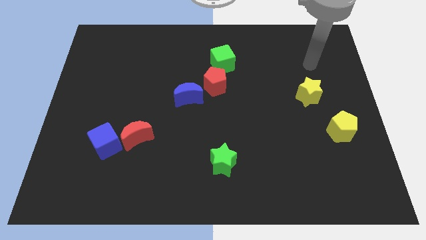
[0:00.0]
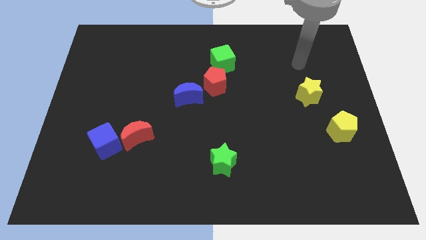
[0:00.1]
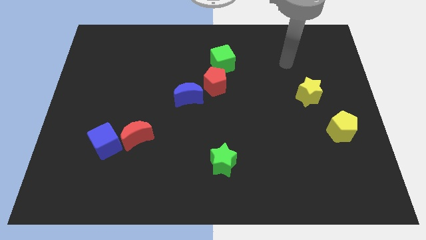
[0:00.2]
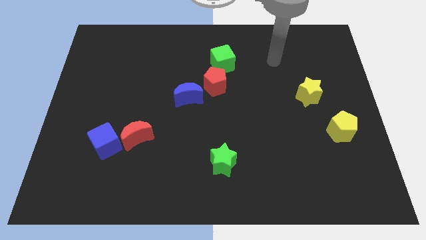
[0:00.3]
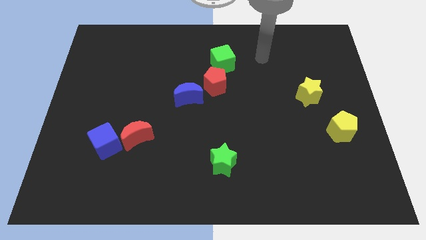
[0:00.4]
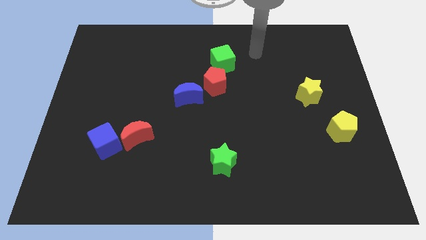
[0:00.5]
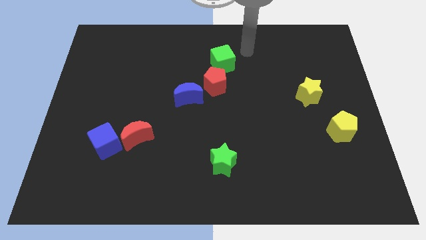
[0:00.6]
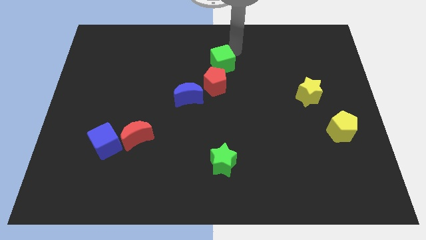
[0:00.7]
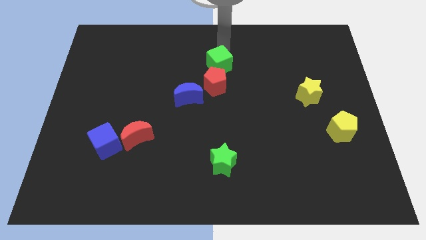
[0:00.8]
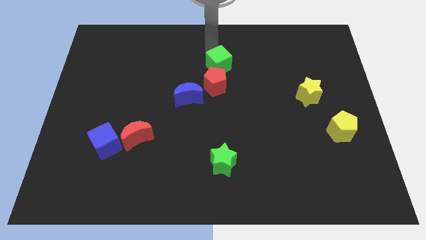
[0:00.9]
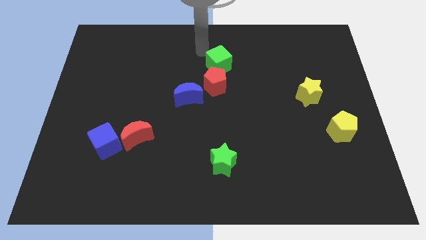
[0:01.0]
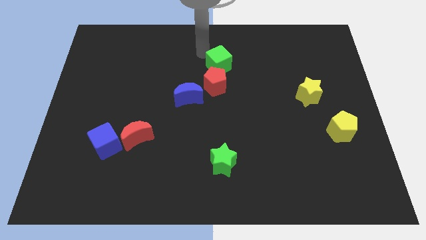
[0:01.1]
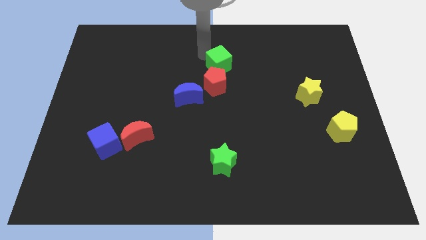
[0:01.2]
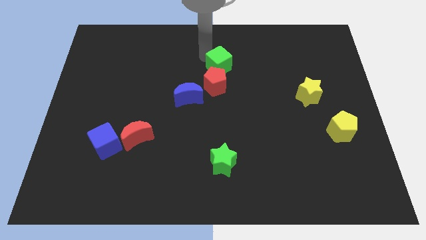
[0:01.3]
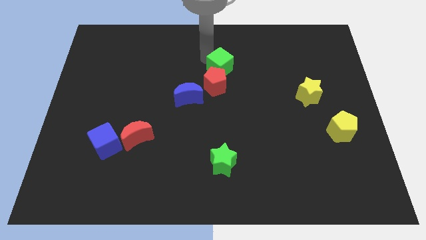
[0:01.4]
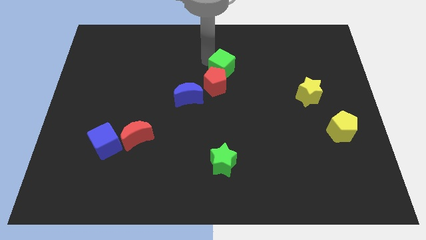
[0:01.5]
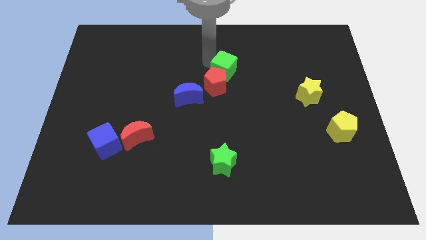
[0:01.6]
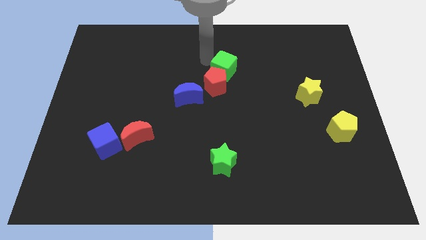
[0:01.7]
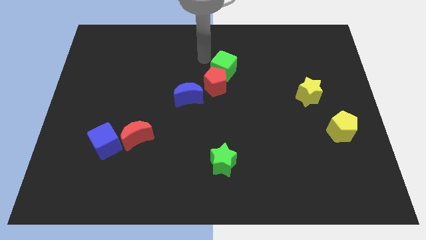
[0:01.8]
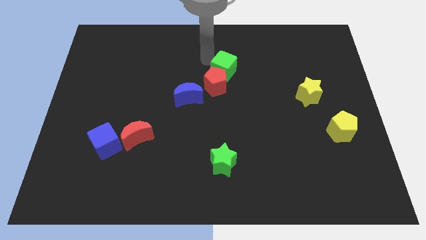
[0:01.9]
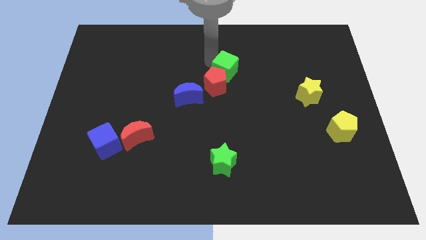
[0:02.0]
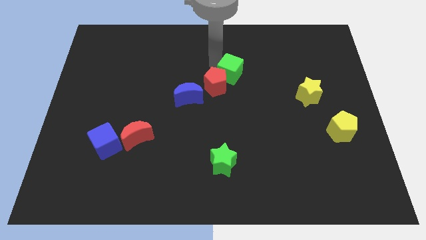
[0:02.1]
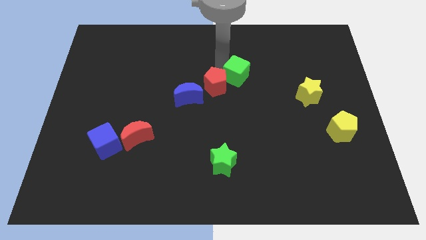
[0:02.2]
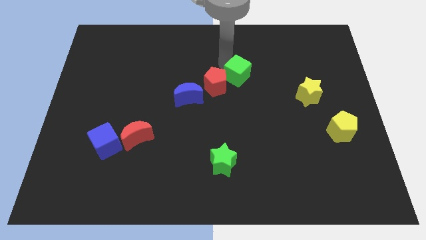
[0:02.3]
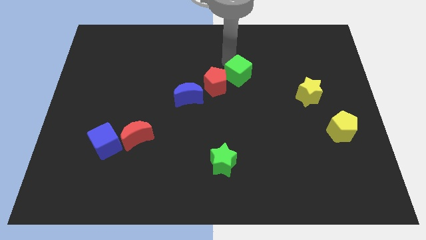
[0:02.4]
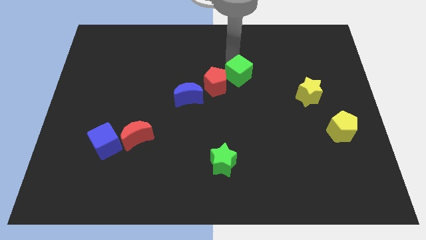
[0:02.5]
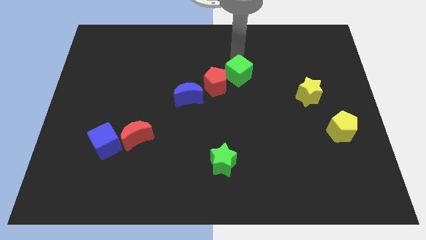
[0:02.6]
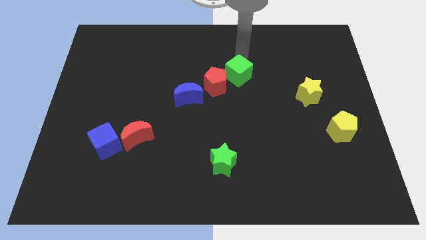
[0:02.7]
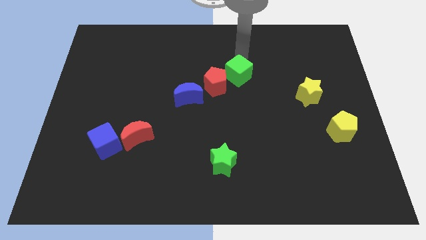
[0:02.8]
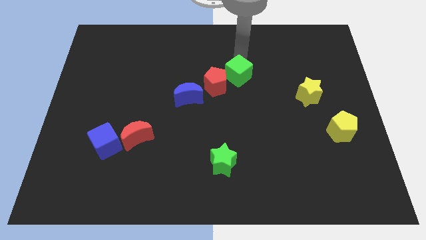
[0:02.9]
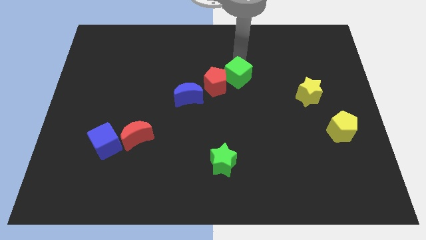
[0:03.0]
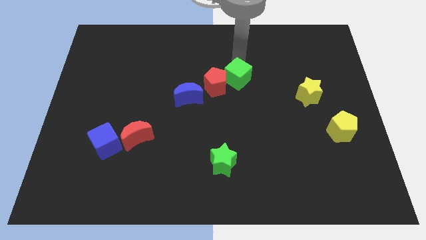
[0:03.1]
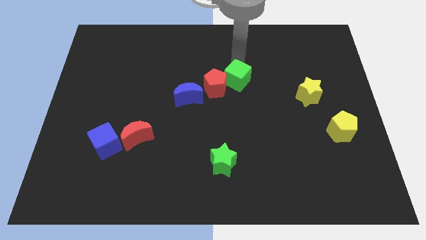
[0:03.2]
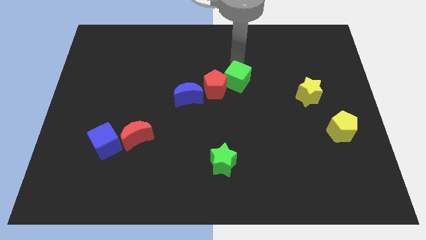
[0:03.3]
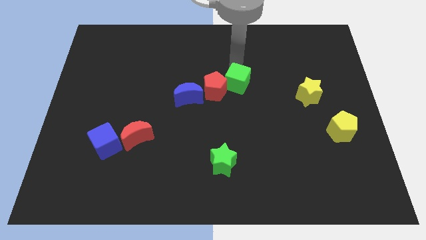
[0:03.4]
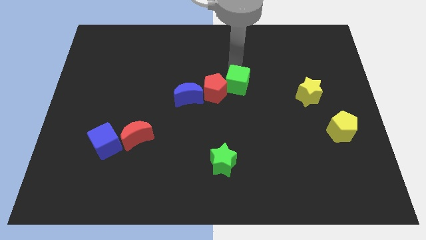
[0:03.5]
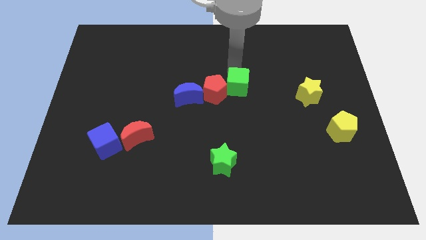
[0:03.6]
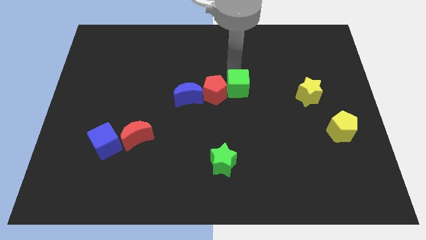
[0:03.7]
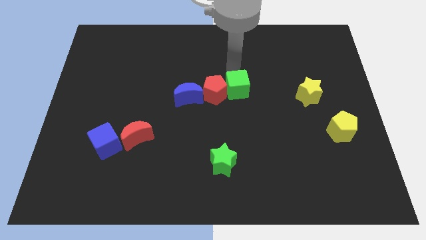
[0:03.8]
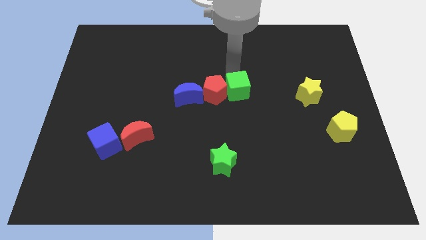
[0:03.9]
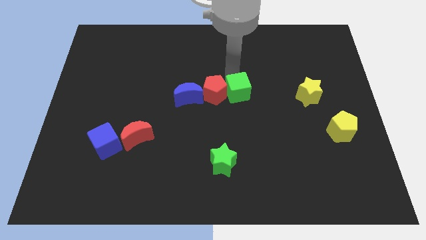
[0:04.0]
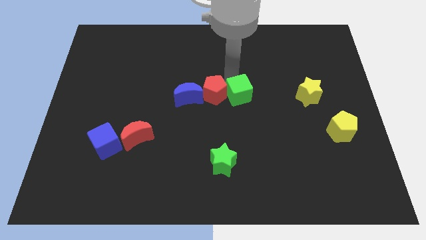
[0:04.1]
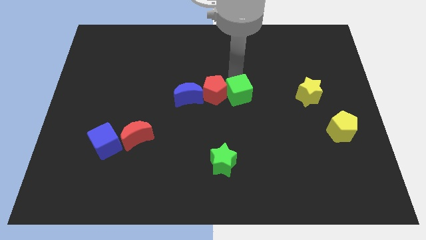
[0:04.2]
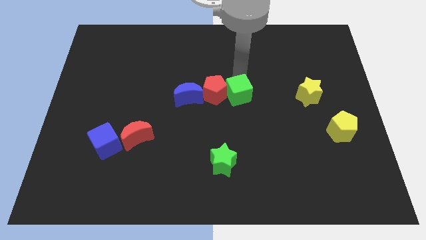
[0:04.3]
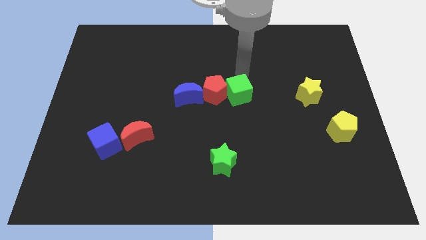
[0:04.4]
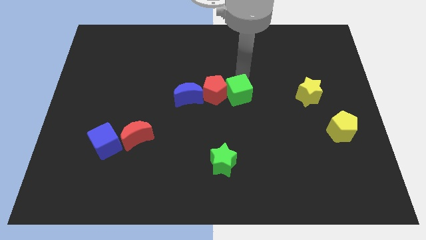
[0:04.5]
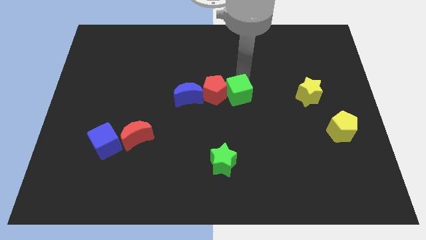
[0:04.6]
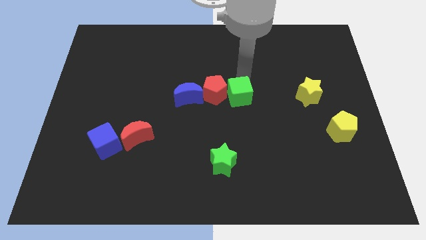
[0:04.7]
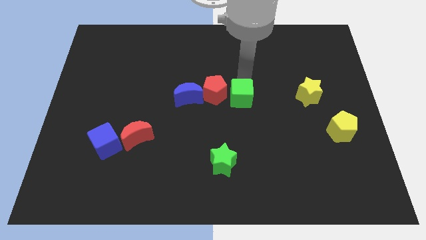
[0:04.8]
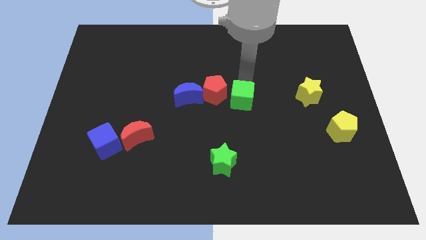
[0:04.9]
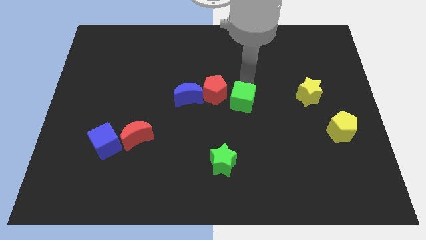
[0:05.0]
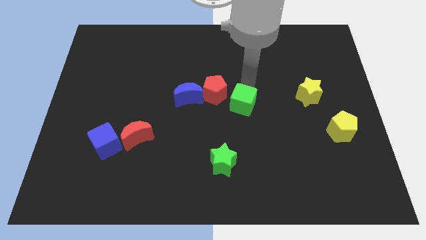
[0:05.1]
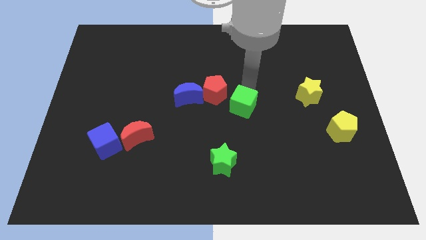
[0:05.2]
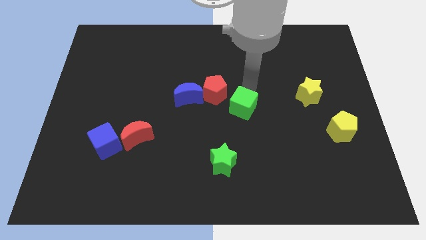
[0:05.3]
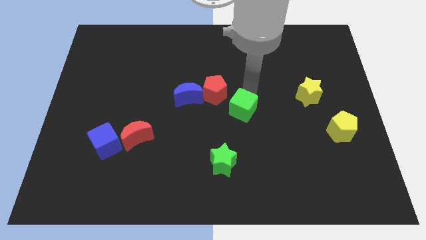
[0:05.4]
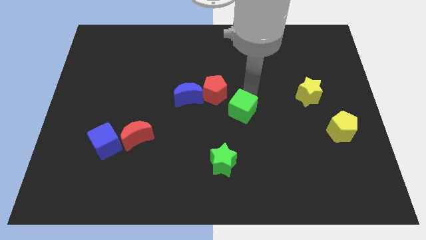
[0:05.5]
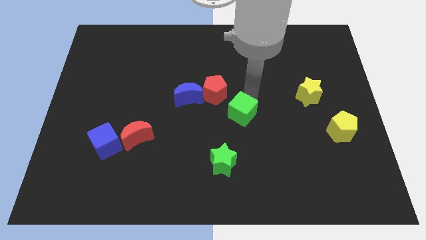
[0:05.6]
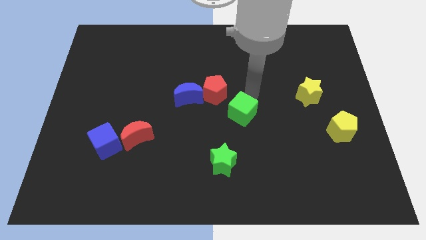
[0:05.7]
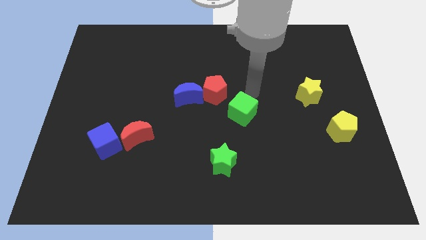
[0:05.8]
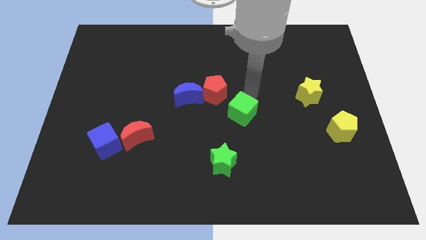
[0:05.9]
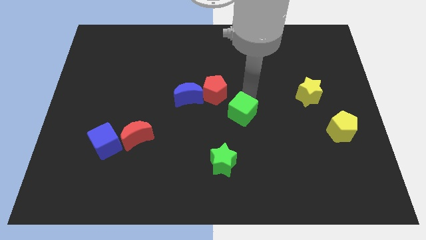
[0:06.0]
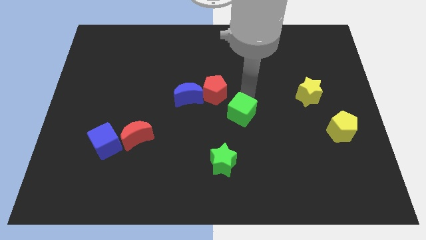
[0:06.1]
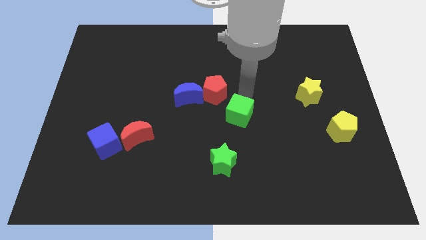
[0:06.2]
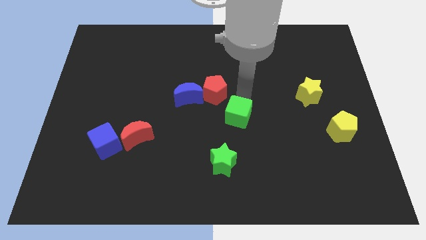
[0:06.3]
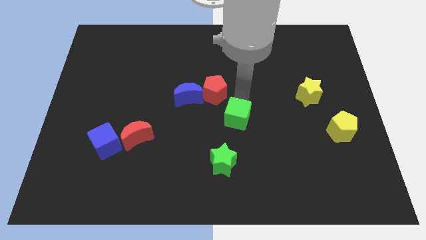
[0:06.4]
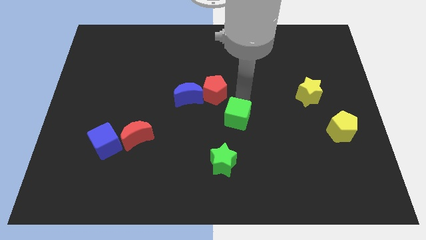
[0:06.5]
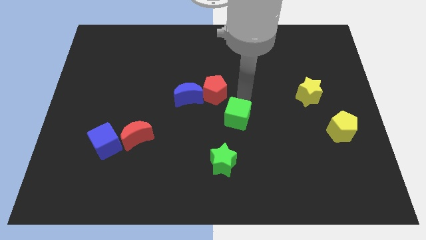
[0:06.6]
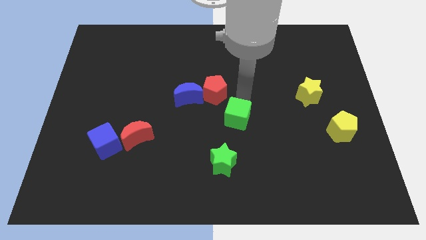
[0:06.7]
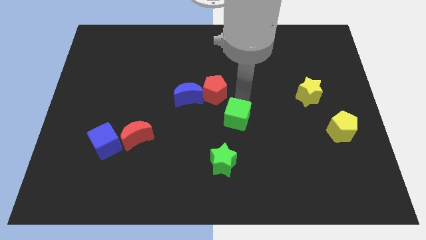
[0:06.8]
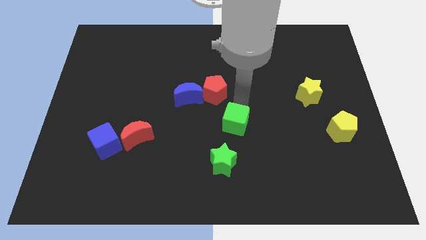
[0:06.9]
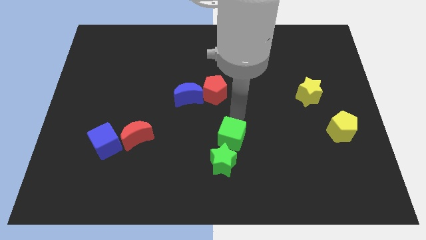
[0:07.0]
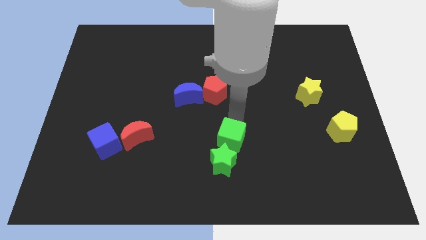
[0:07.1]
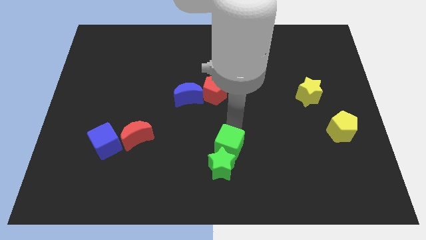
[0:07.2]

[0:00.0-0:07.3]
move the green cube towards the green star
